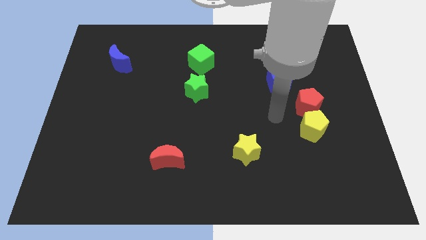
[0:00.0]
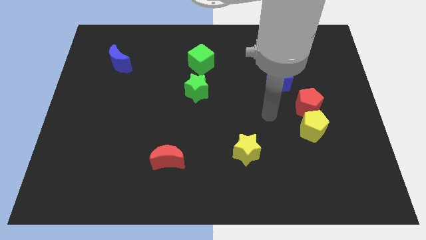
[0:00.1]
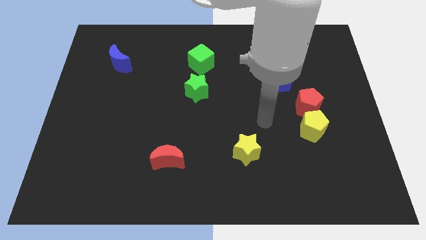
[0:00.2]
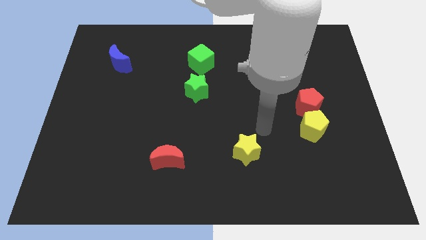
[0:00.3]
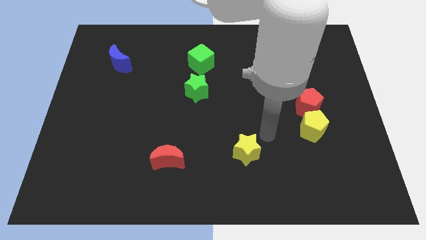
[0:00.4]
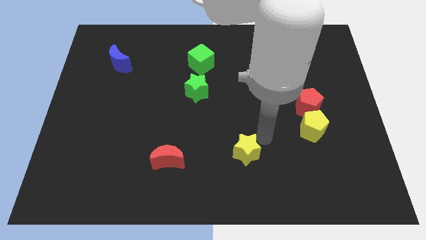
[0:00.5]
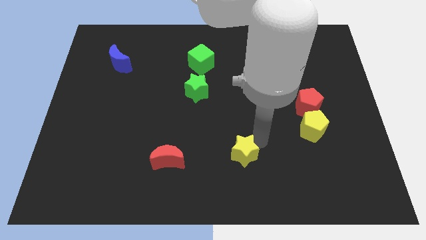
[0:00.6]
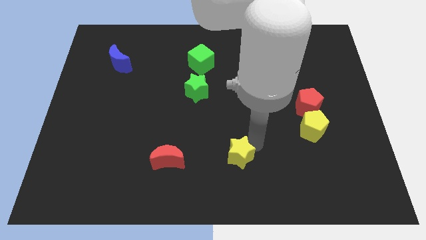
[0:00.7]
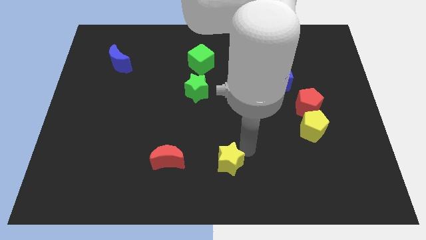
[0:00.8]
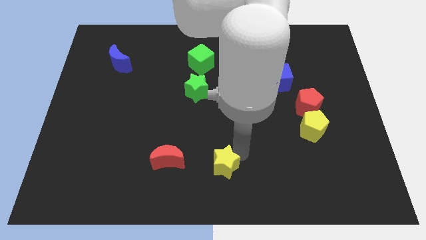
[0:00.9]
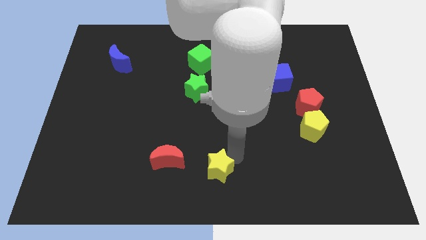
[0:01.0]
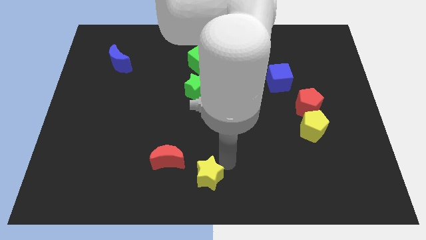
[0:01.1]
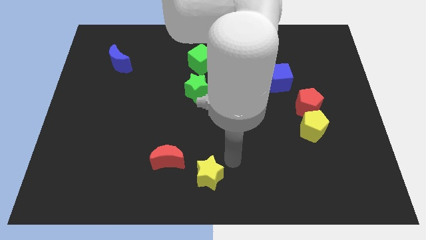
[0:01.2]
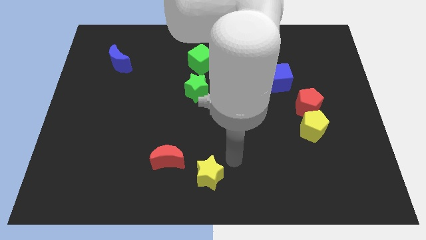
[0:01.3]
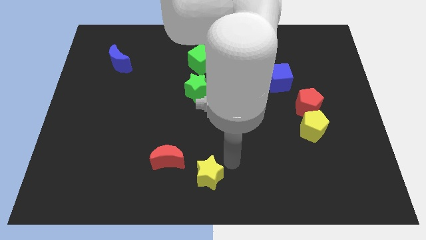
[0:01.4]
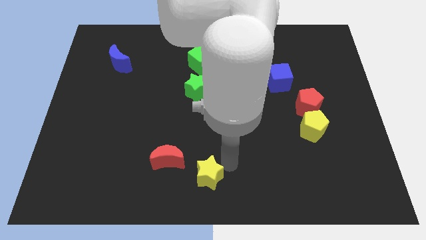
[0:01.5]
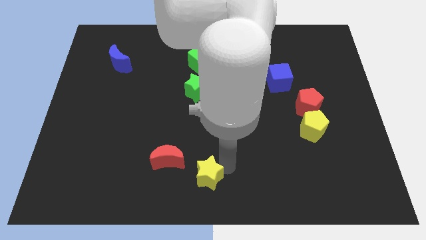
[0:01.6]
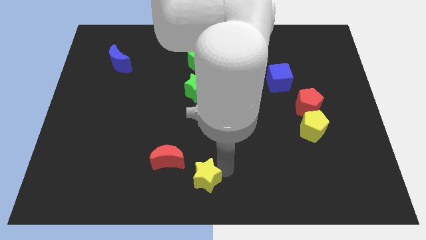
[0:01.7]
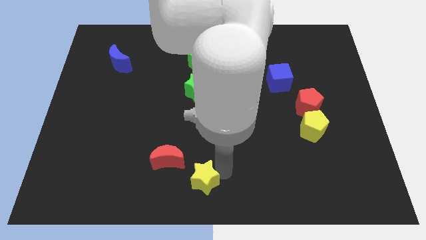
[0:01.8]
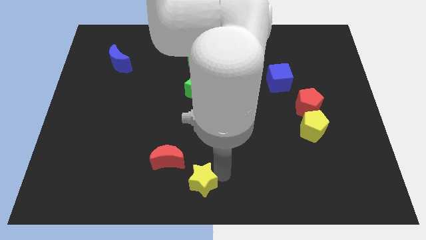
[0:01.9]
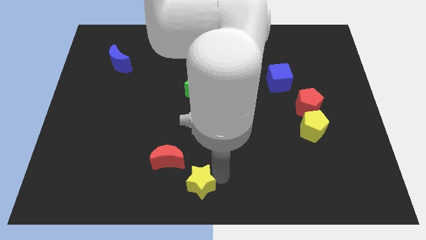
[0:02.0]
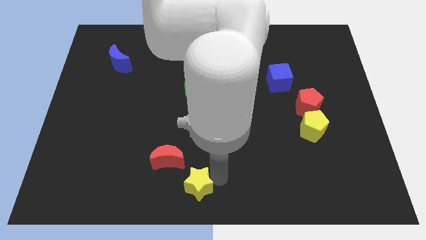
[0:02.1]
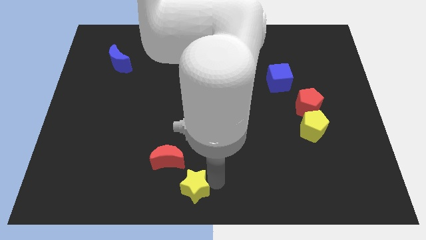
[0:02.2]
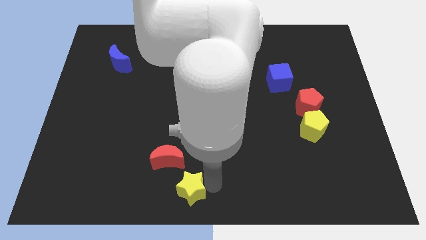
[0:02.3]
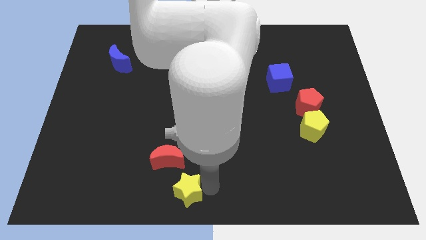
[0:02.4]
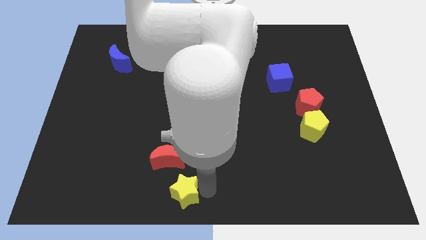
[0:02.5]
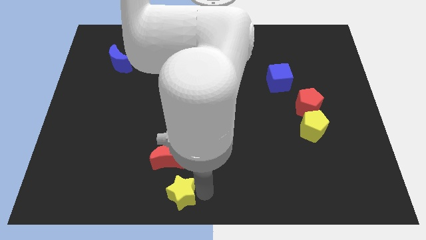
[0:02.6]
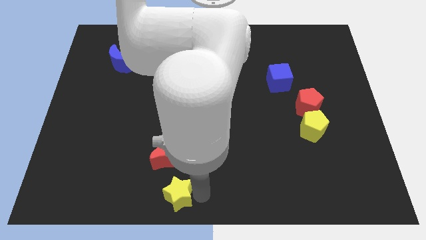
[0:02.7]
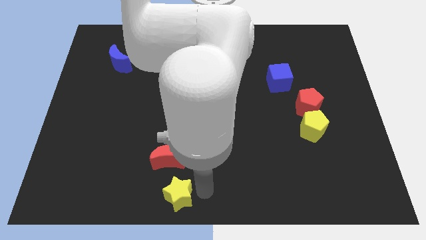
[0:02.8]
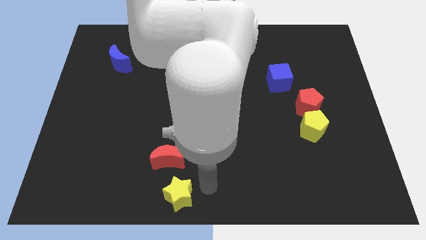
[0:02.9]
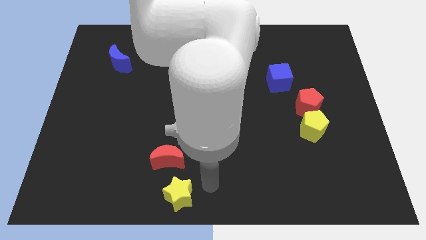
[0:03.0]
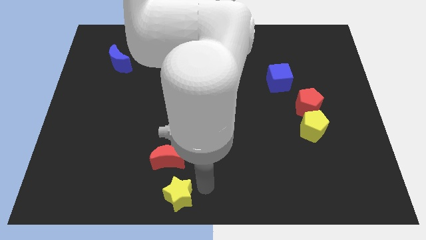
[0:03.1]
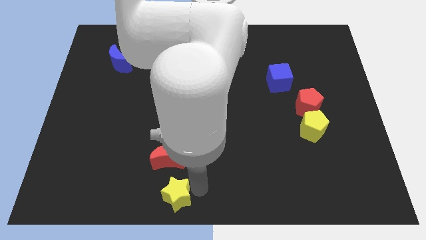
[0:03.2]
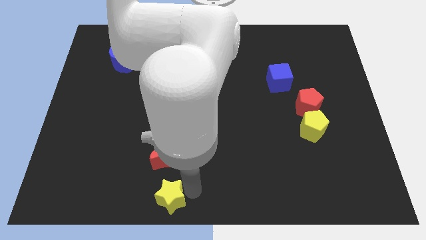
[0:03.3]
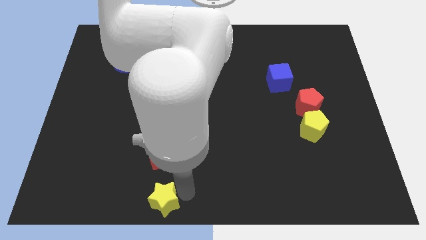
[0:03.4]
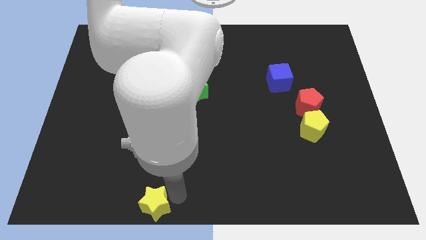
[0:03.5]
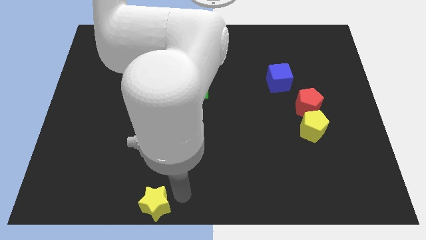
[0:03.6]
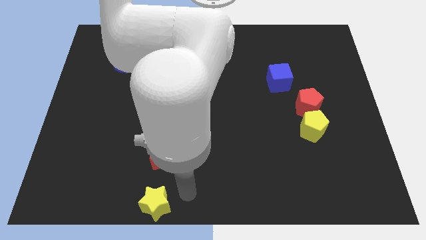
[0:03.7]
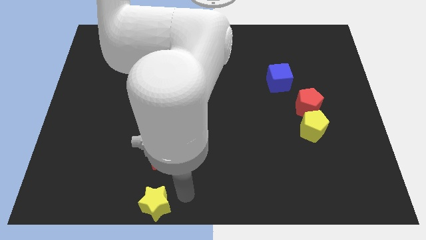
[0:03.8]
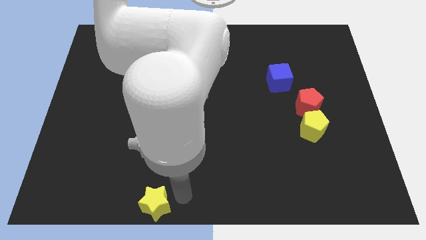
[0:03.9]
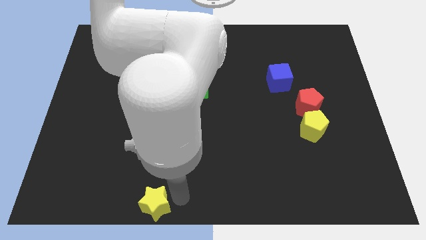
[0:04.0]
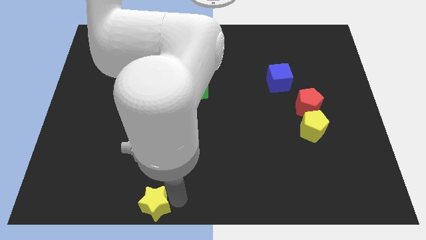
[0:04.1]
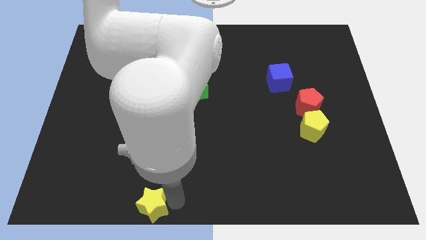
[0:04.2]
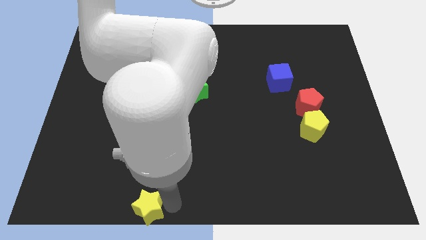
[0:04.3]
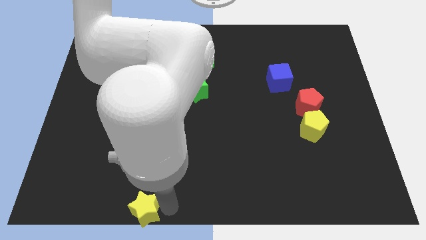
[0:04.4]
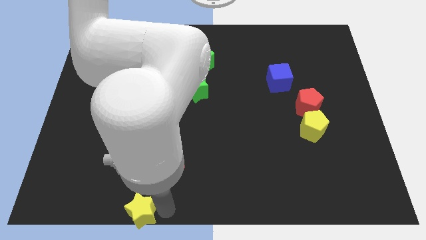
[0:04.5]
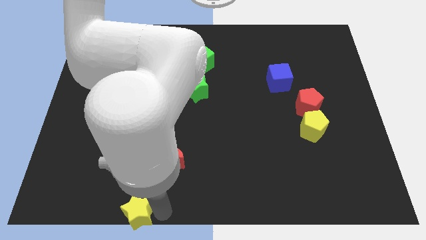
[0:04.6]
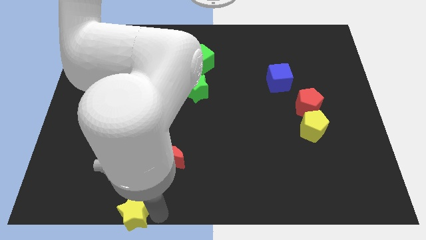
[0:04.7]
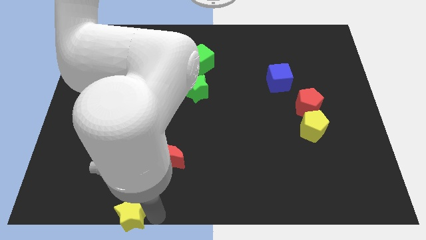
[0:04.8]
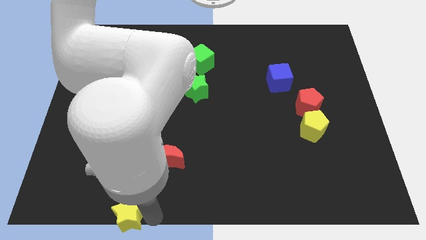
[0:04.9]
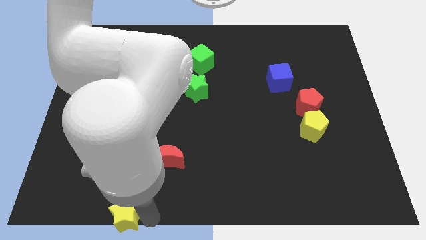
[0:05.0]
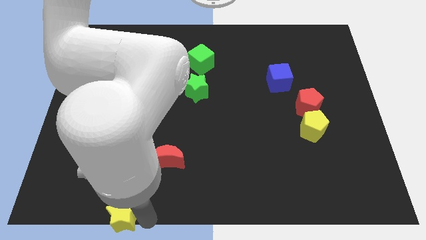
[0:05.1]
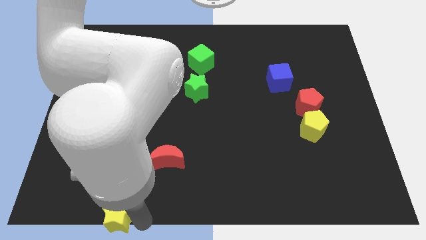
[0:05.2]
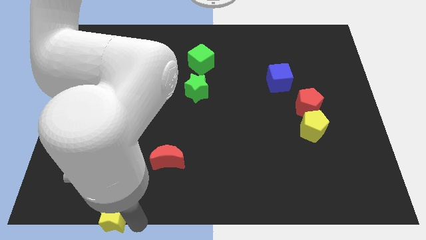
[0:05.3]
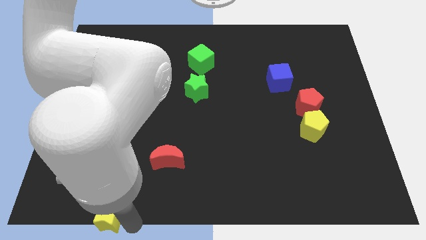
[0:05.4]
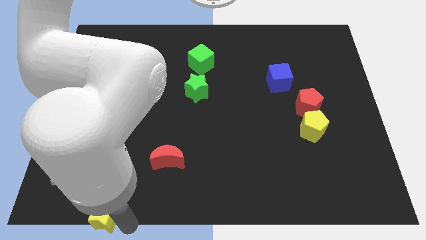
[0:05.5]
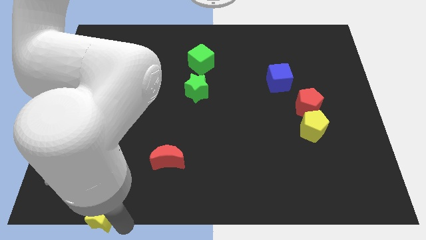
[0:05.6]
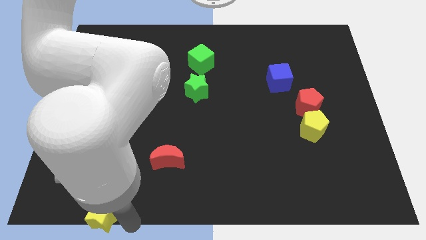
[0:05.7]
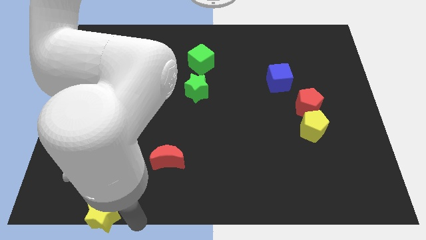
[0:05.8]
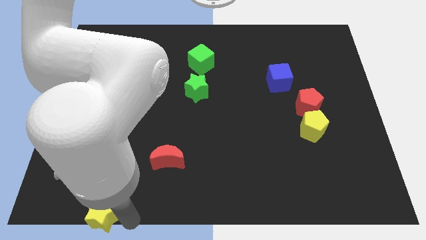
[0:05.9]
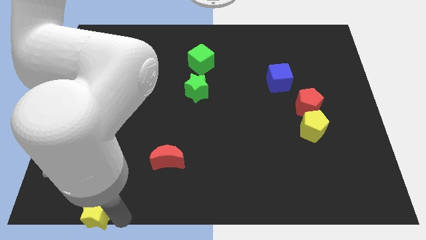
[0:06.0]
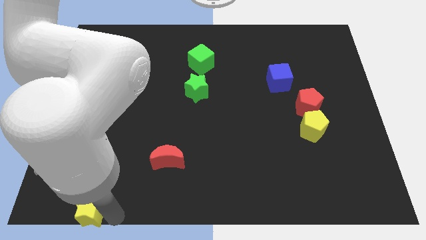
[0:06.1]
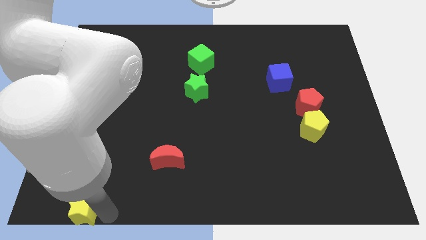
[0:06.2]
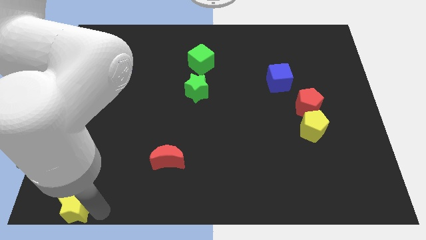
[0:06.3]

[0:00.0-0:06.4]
put the yellow star to the bottom left
